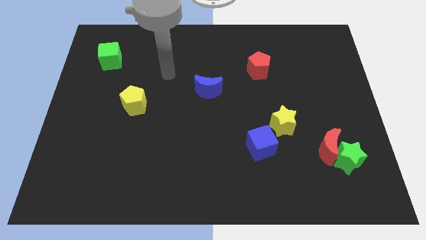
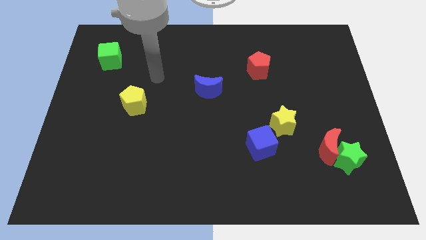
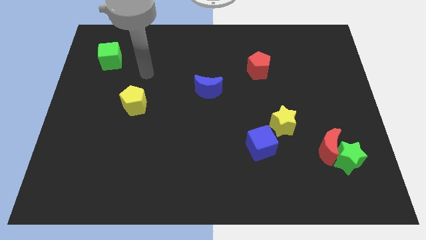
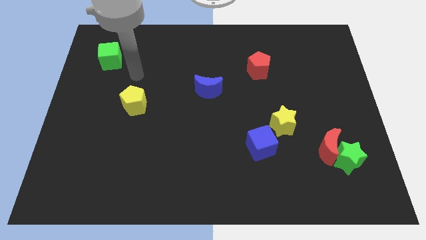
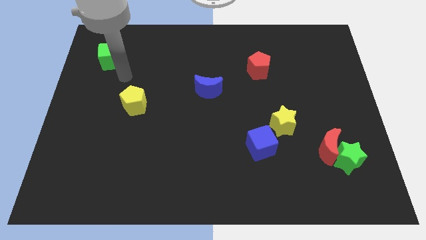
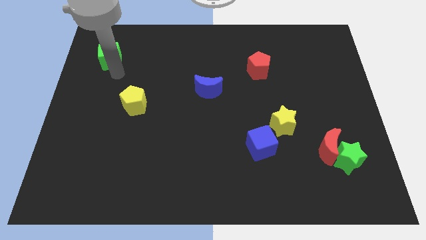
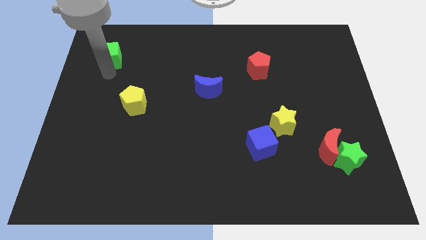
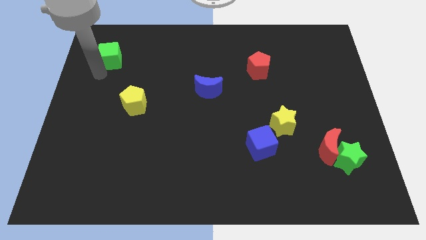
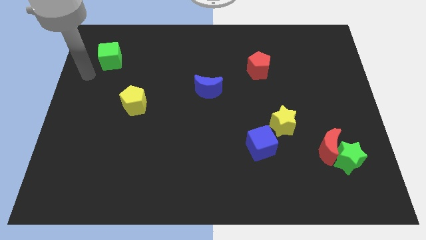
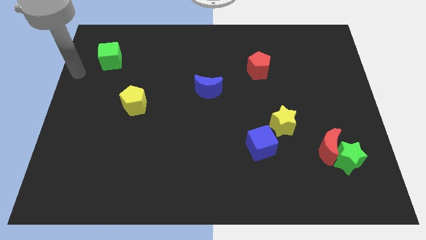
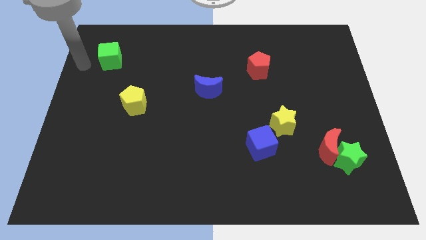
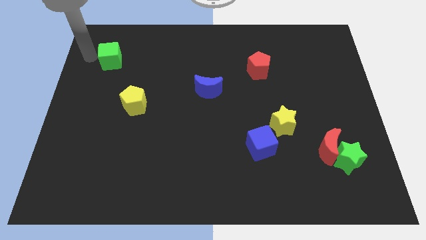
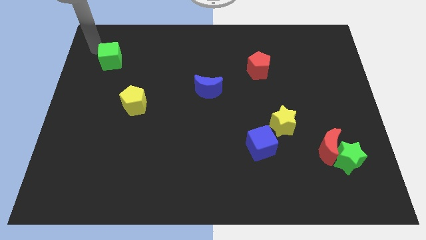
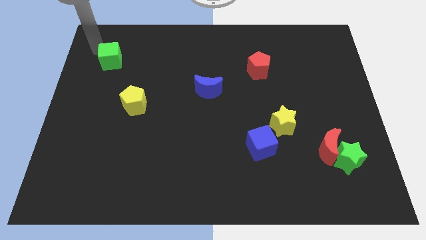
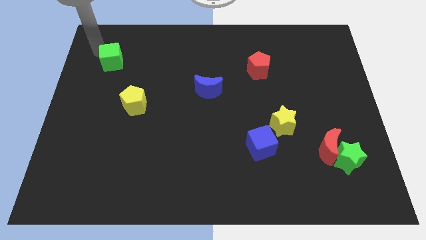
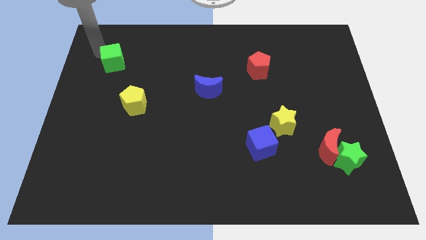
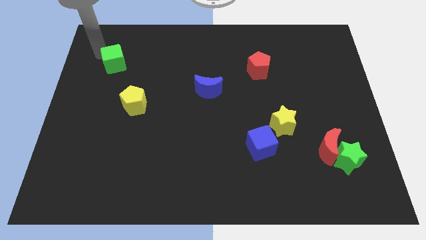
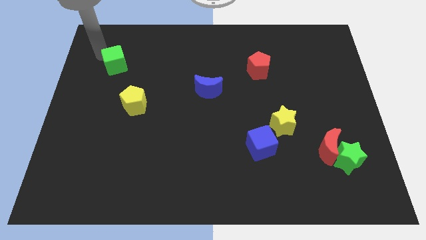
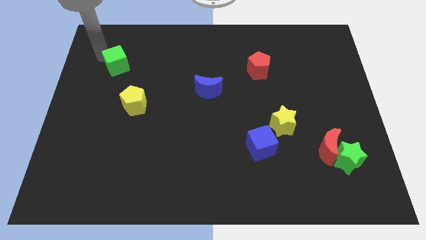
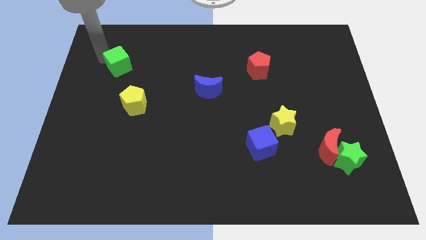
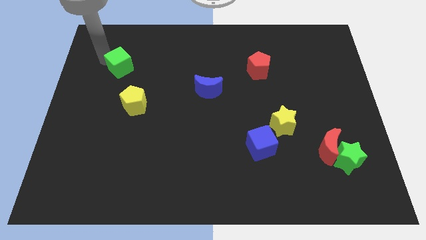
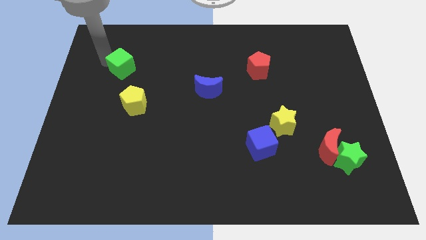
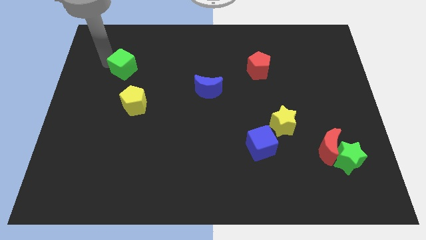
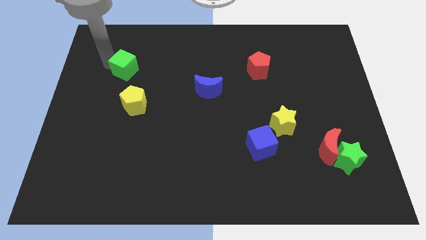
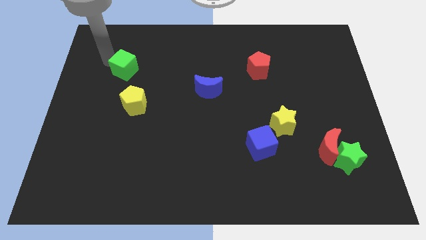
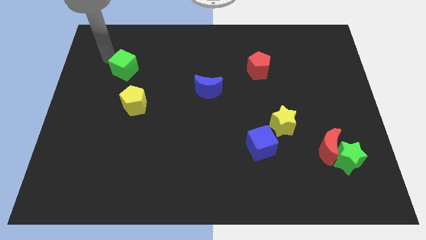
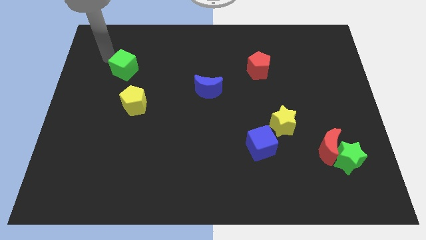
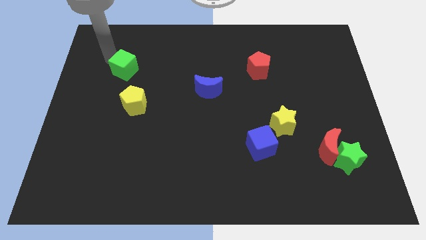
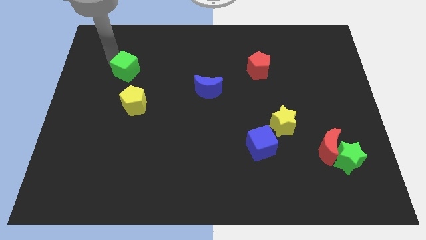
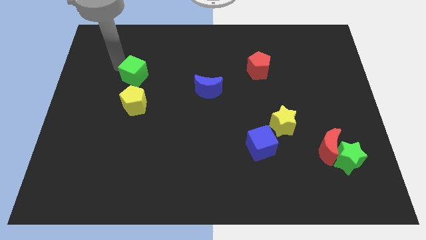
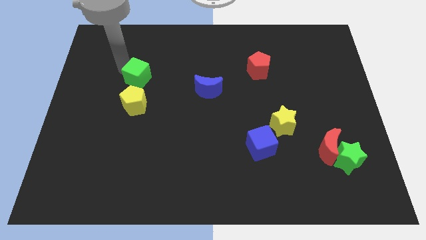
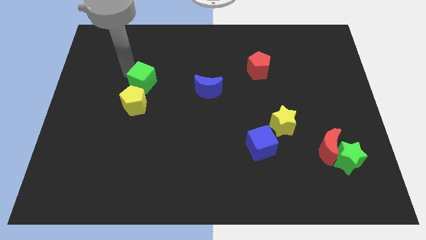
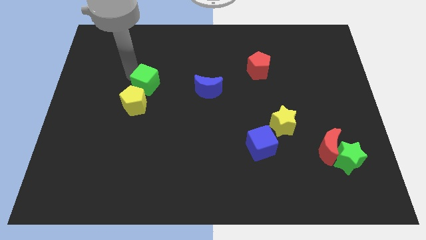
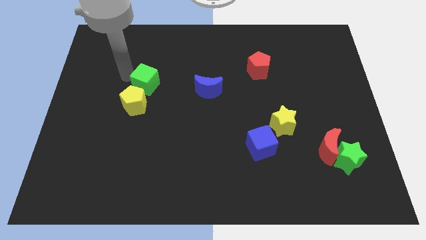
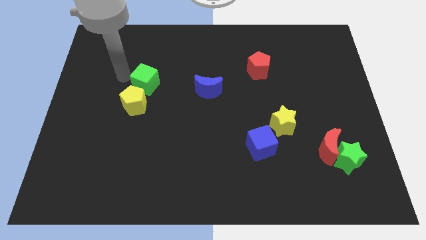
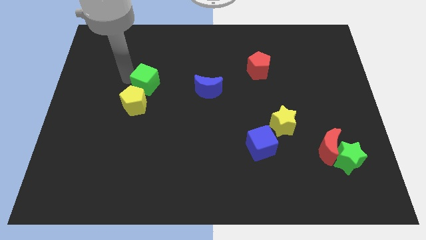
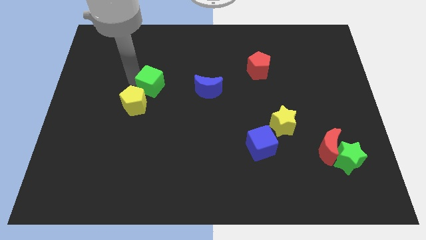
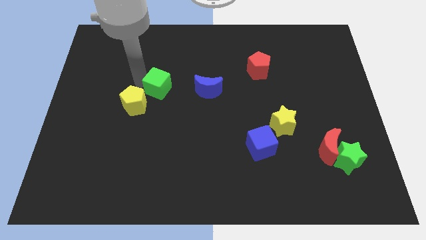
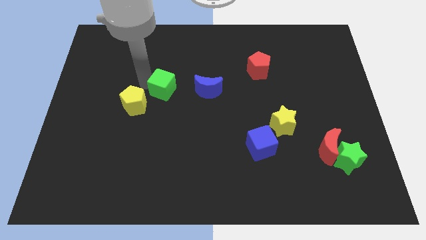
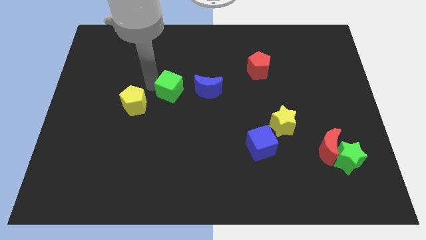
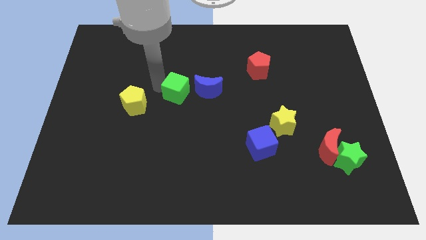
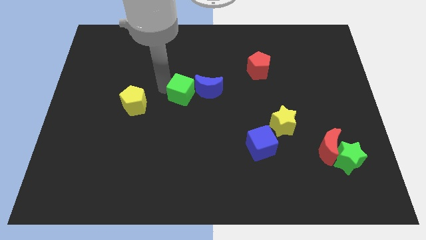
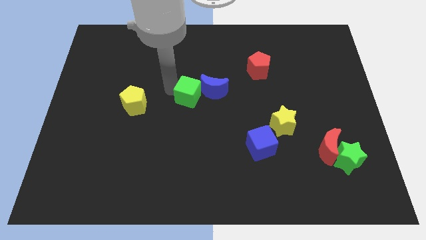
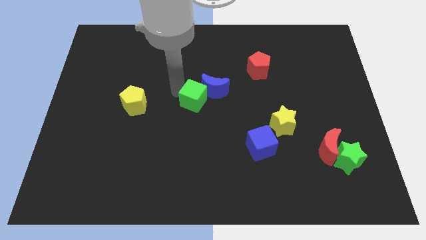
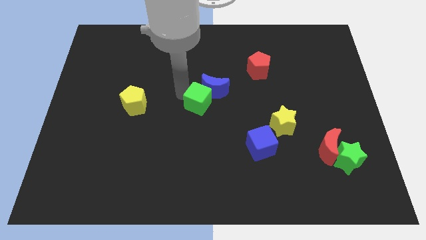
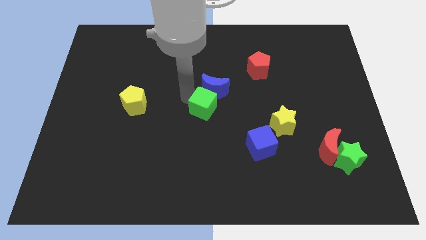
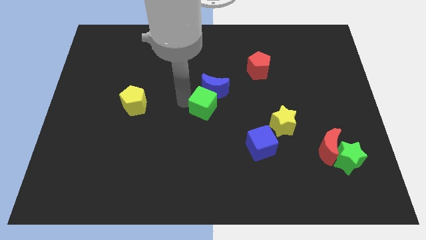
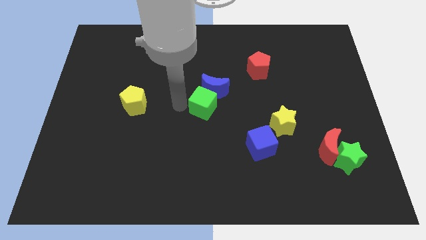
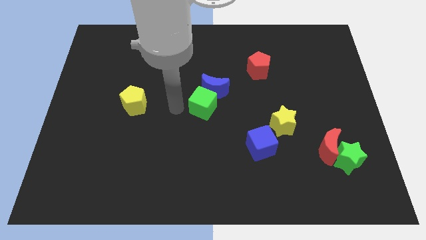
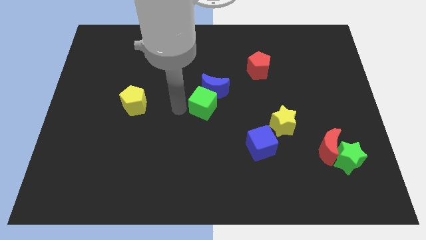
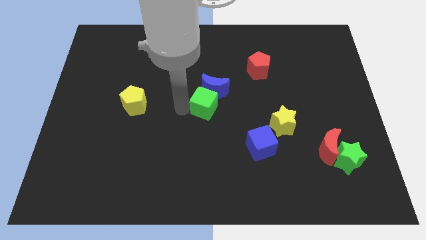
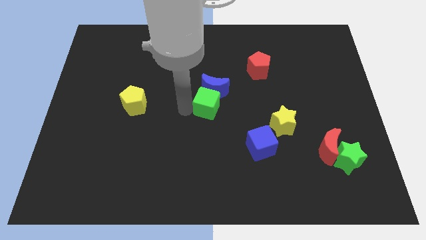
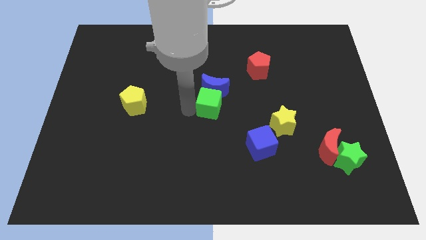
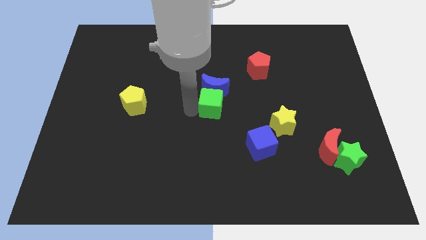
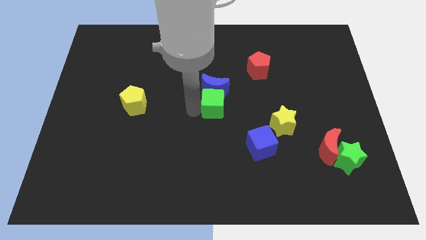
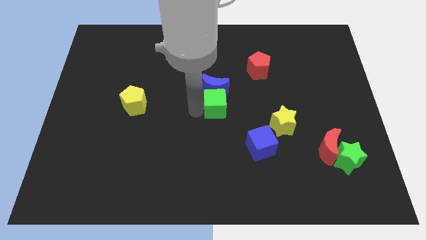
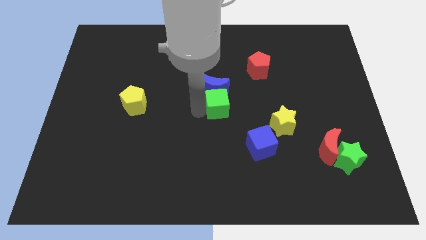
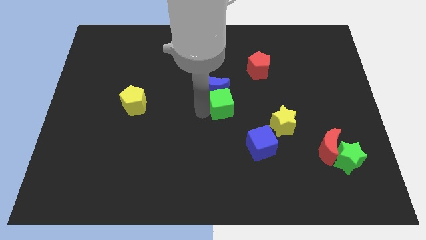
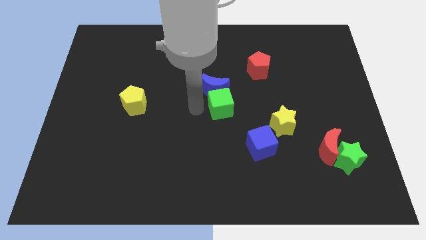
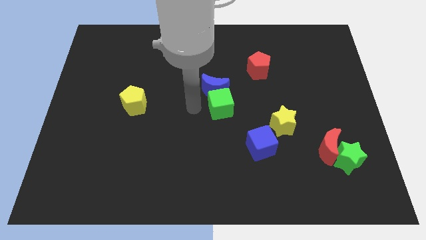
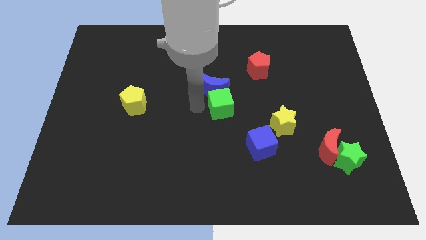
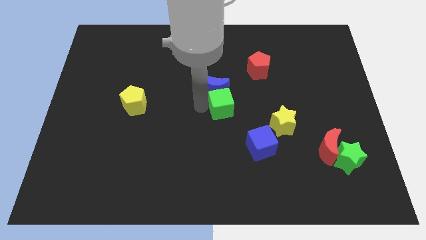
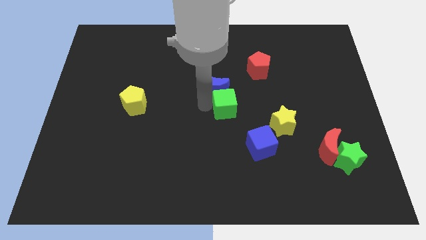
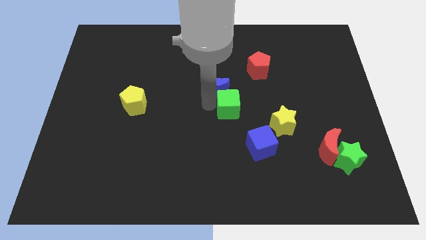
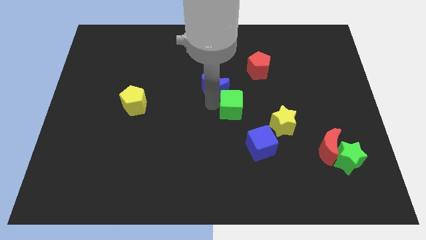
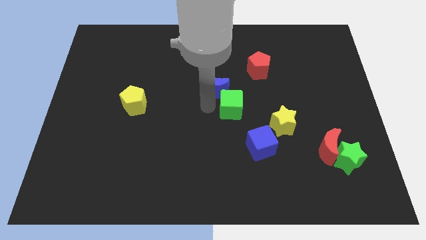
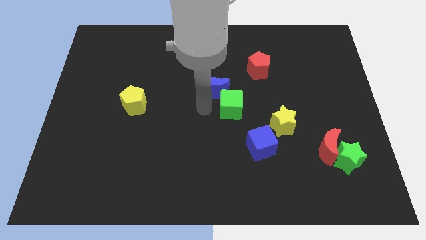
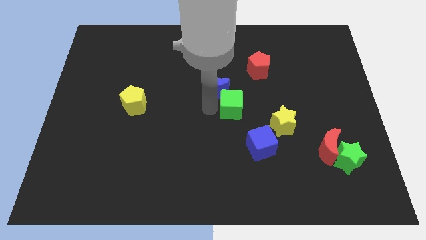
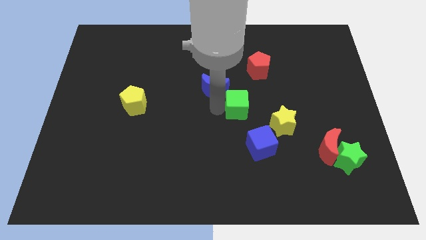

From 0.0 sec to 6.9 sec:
put the green cube to the top left side of the yellow star

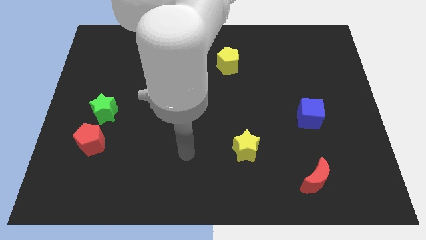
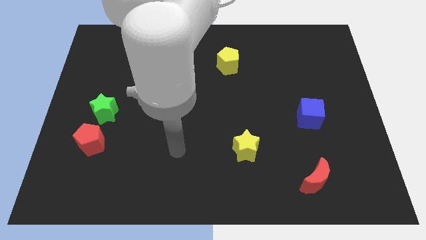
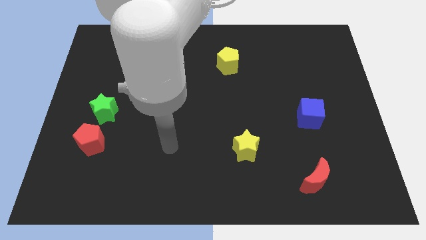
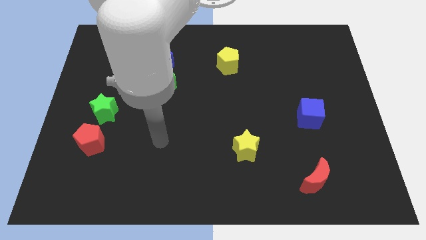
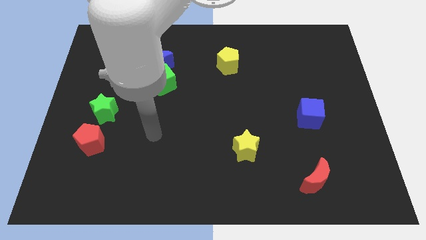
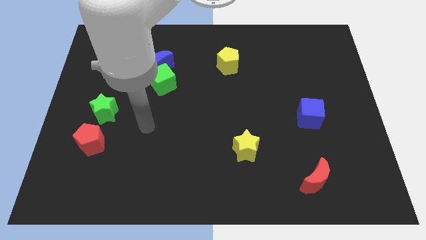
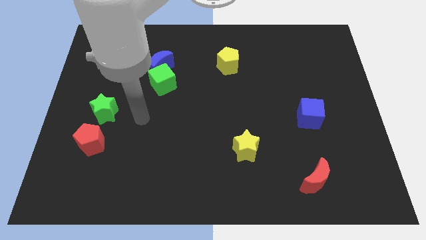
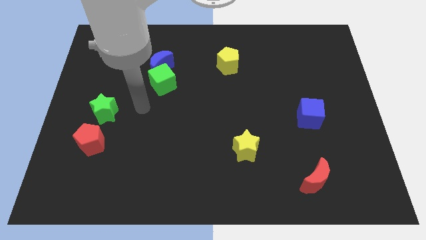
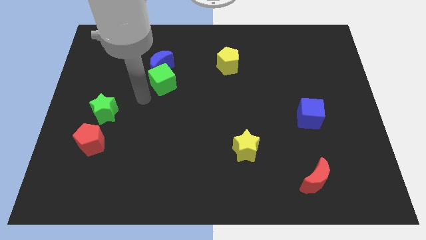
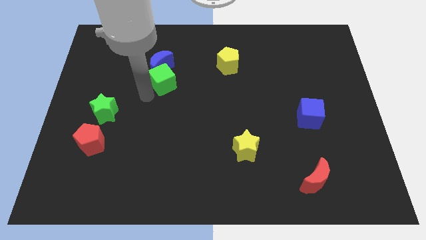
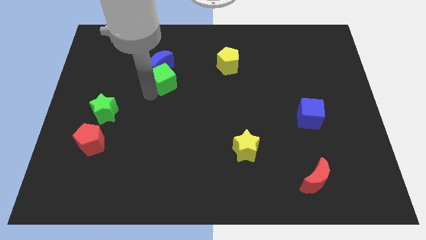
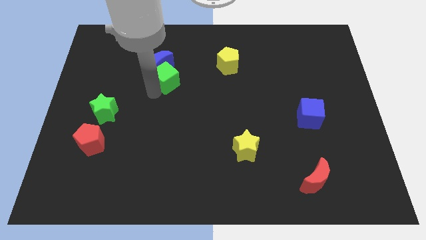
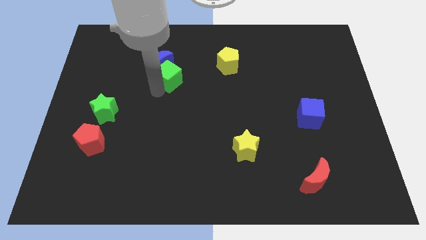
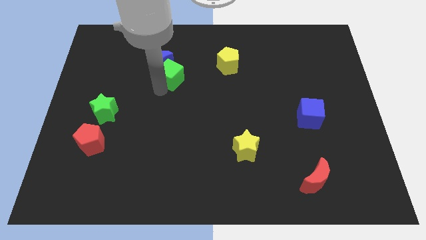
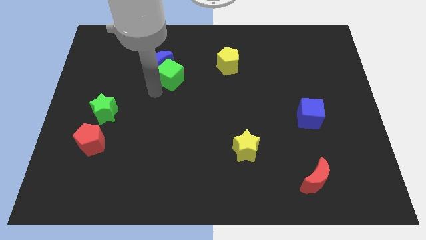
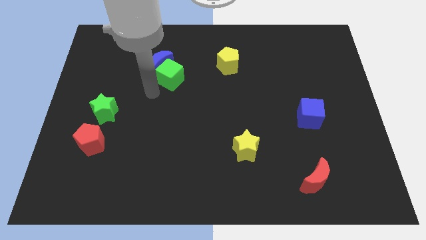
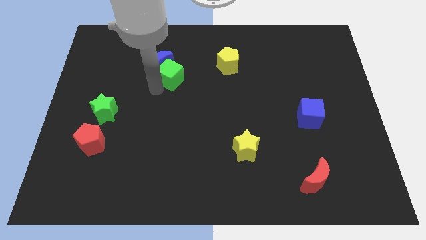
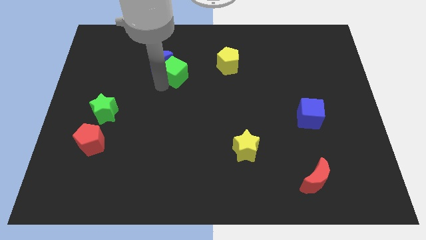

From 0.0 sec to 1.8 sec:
push the green cube to the left side of the yellow pentagon
